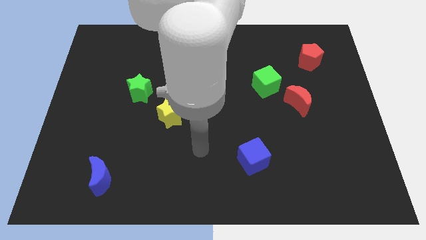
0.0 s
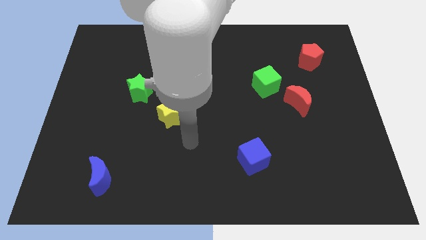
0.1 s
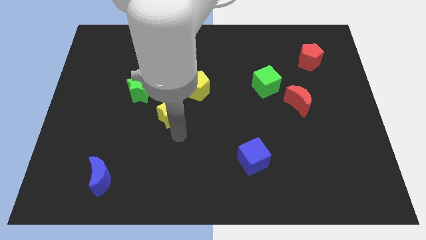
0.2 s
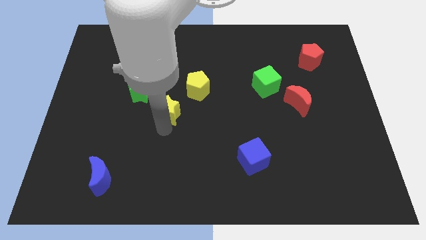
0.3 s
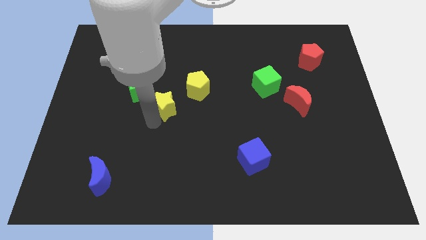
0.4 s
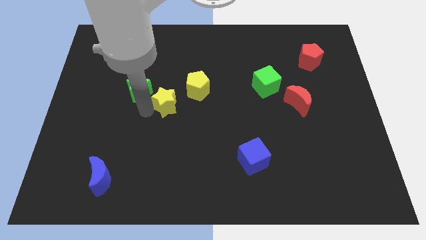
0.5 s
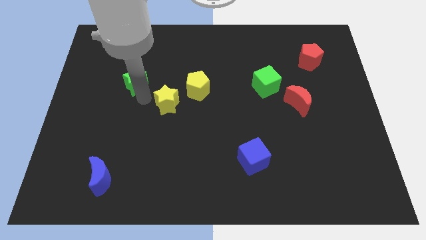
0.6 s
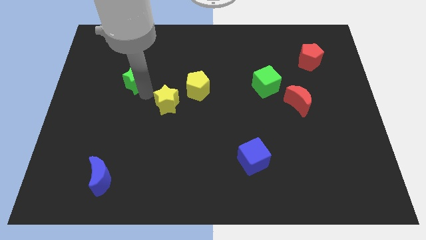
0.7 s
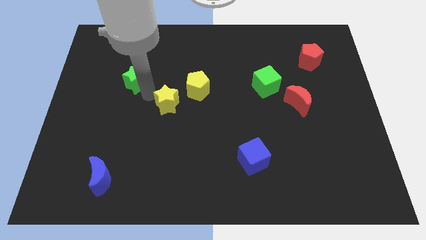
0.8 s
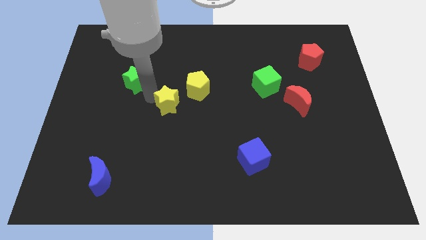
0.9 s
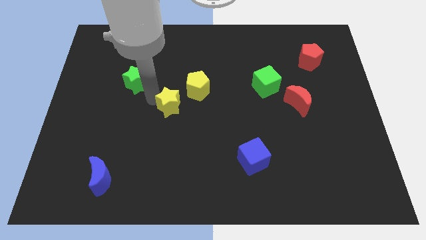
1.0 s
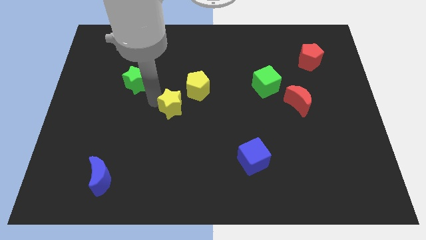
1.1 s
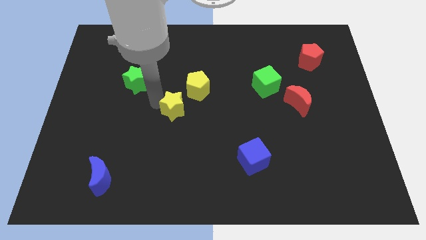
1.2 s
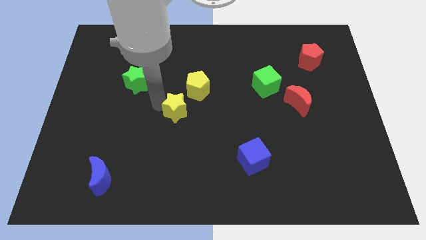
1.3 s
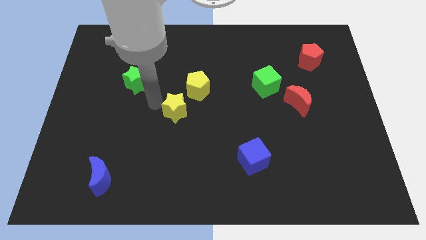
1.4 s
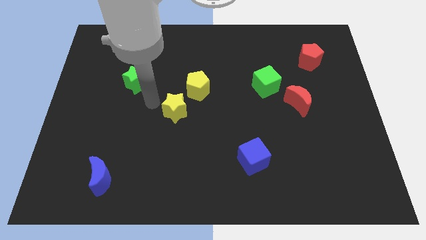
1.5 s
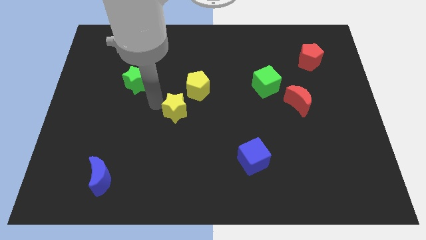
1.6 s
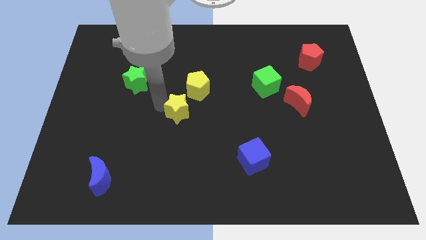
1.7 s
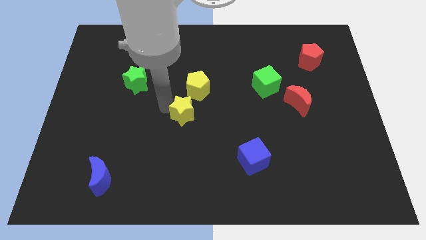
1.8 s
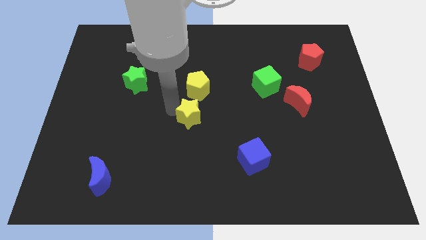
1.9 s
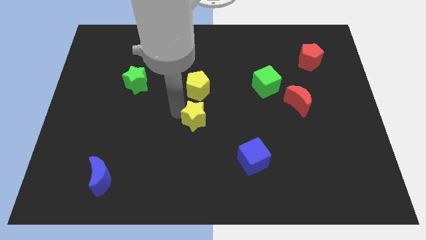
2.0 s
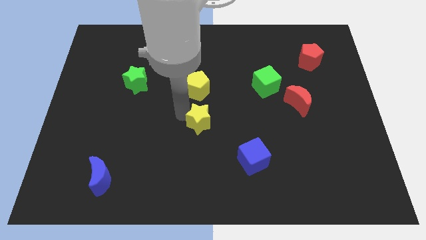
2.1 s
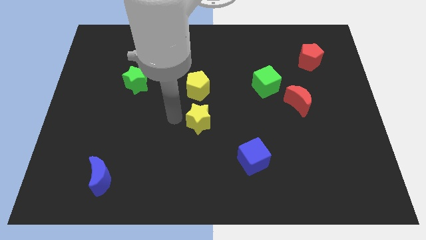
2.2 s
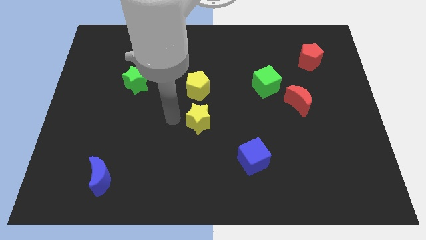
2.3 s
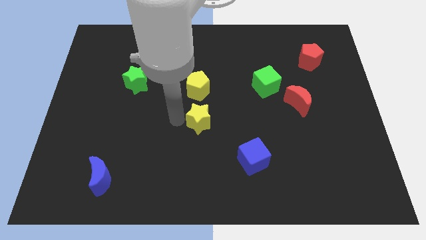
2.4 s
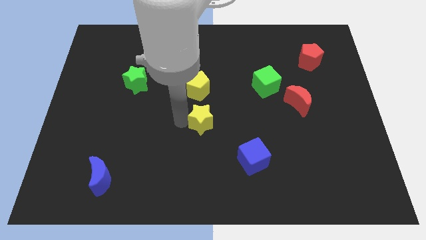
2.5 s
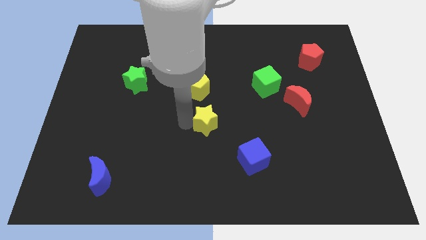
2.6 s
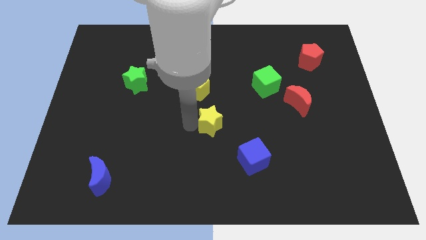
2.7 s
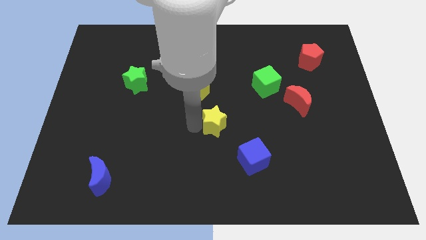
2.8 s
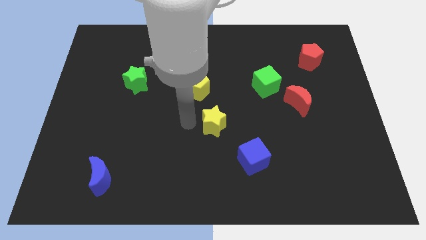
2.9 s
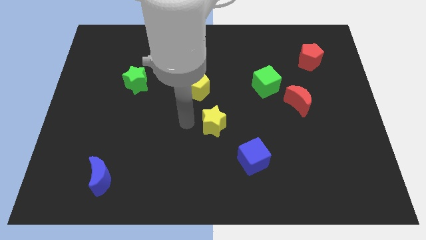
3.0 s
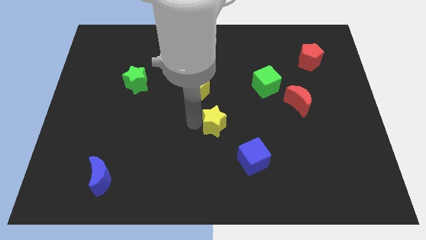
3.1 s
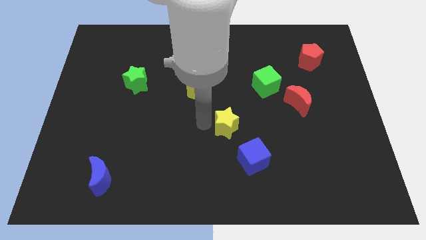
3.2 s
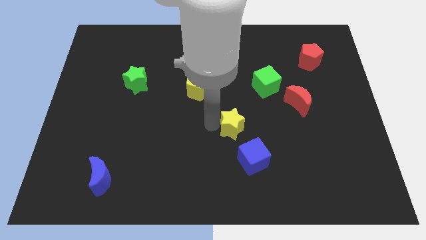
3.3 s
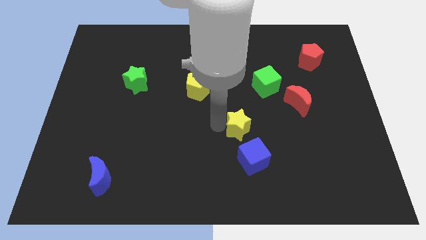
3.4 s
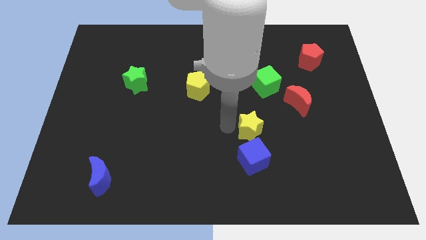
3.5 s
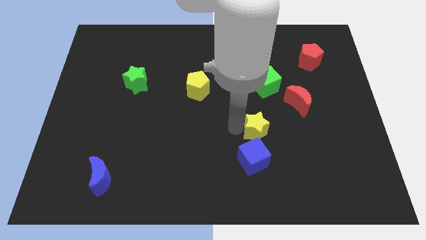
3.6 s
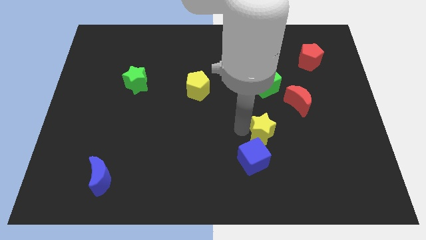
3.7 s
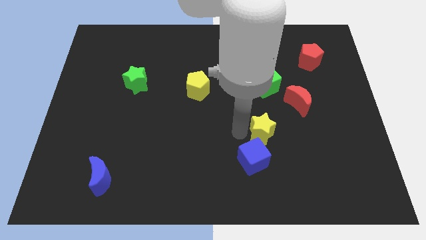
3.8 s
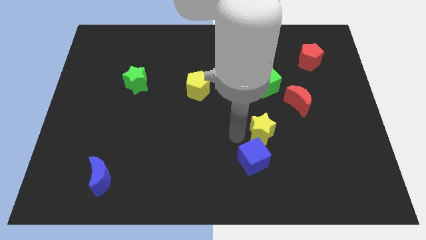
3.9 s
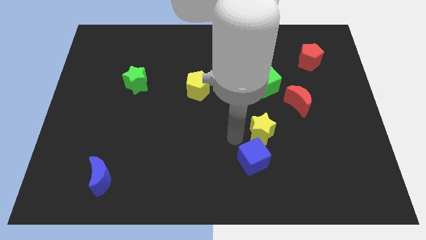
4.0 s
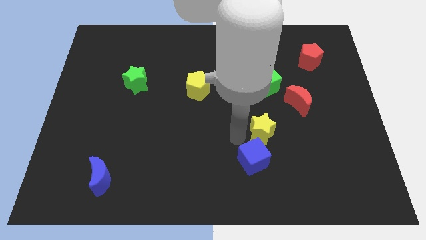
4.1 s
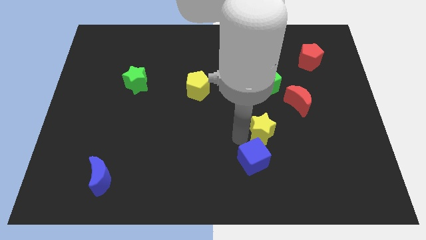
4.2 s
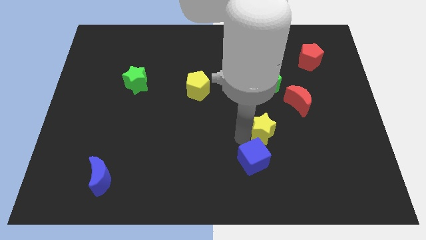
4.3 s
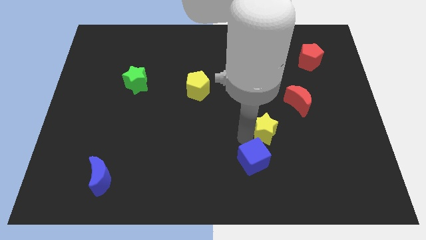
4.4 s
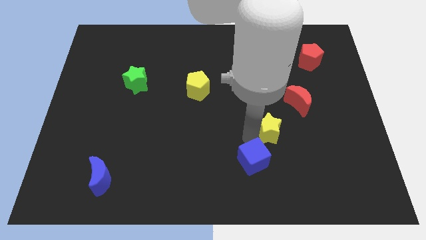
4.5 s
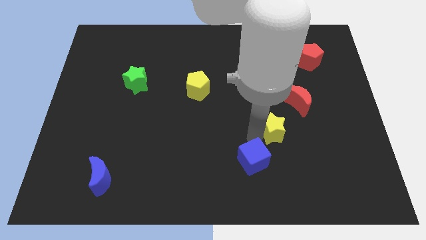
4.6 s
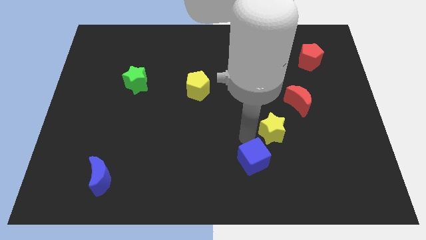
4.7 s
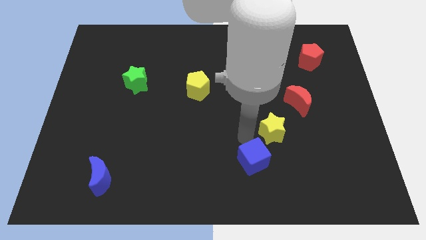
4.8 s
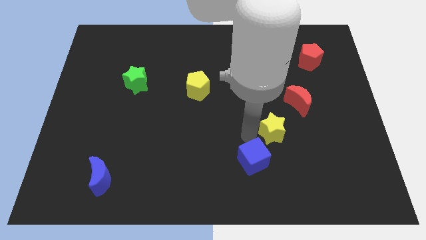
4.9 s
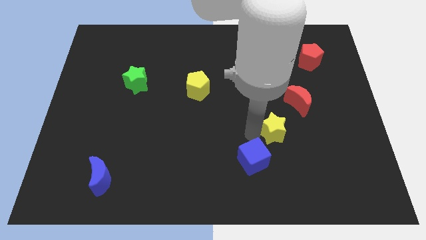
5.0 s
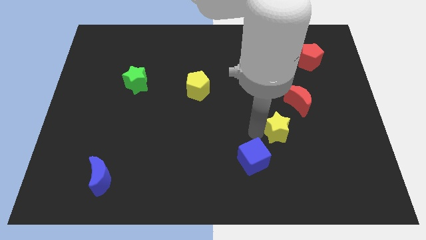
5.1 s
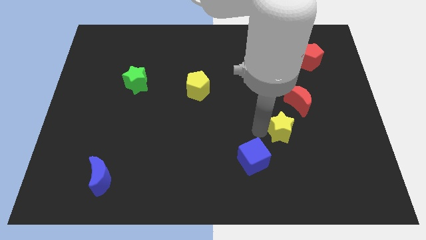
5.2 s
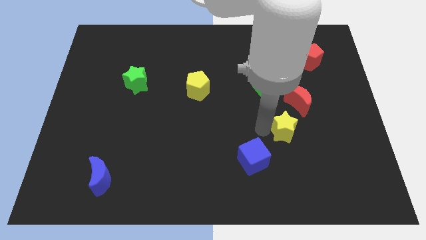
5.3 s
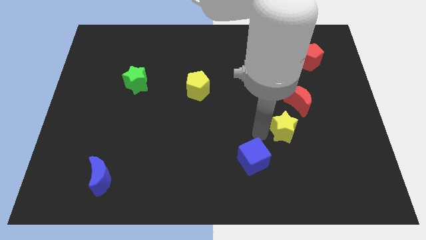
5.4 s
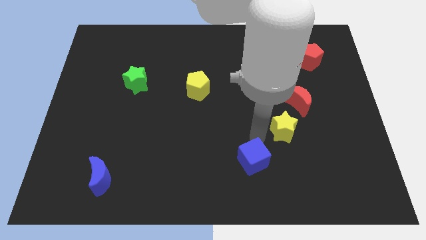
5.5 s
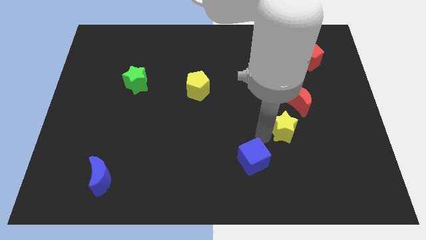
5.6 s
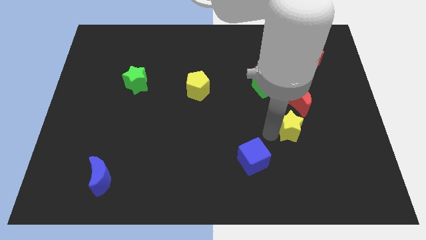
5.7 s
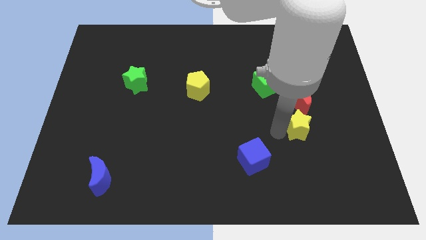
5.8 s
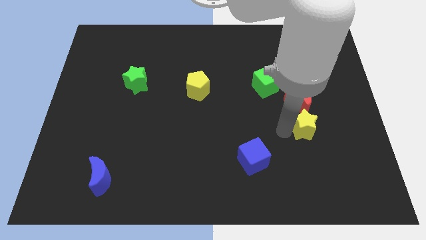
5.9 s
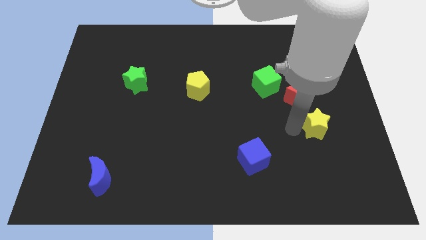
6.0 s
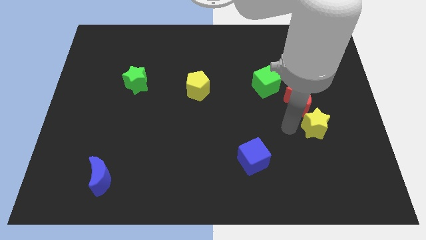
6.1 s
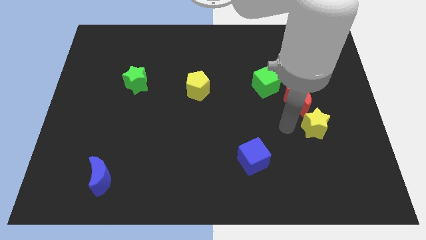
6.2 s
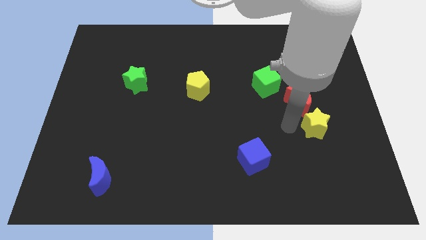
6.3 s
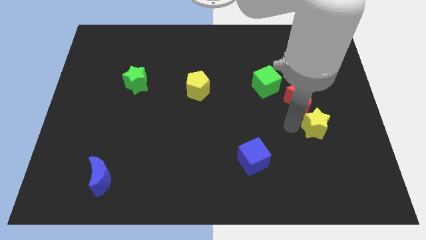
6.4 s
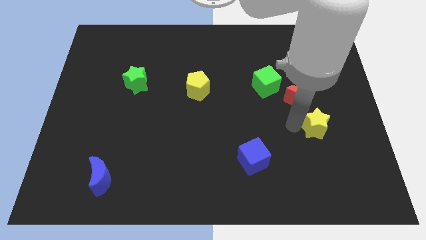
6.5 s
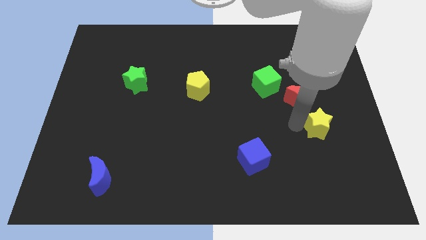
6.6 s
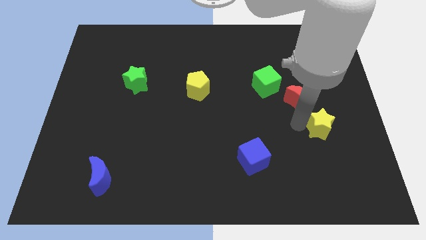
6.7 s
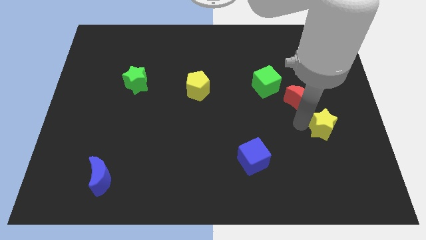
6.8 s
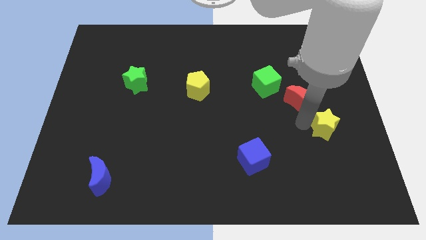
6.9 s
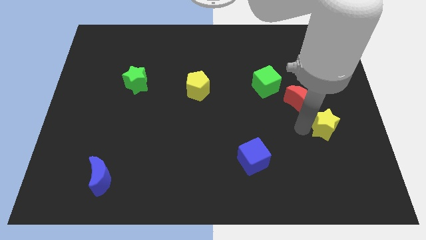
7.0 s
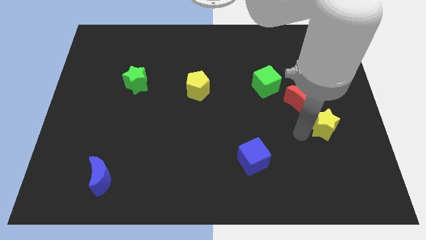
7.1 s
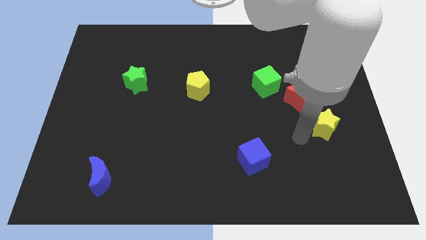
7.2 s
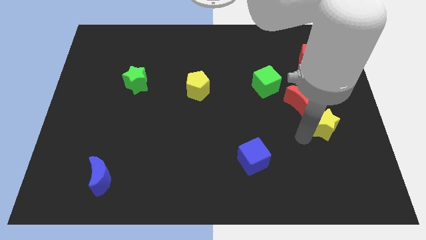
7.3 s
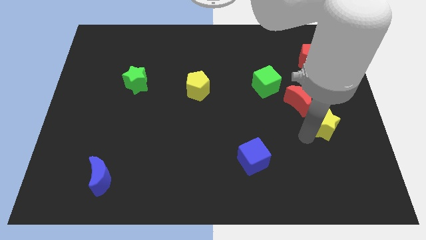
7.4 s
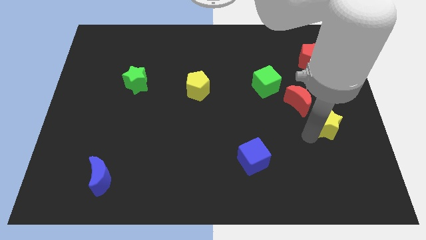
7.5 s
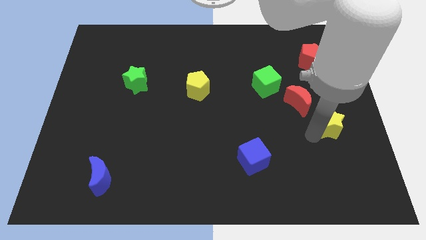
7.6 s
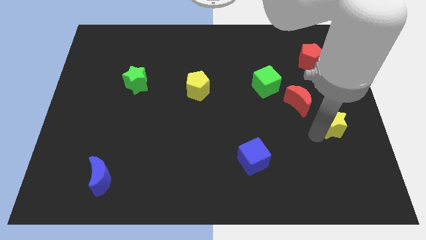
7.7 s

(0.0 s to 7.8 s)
put the yellow star to the right side
